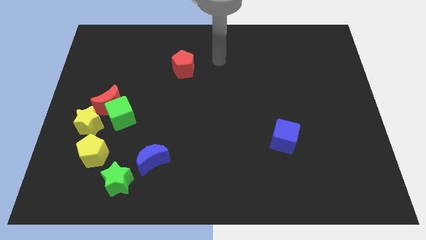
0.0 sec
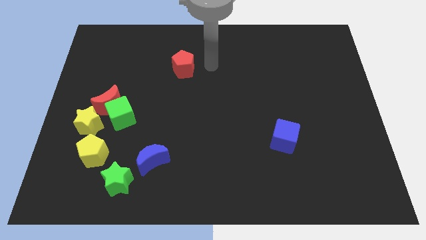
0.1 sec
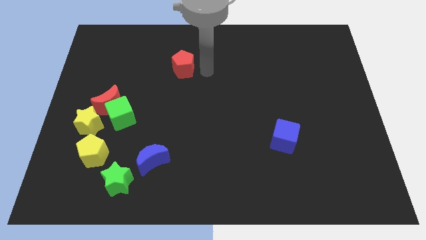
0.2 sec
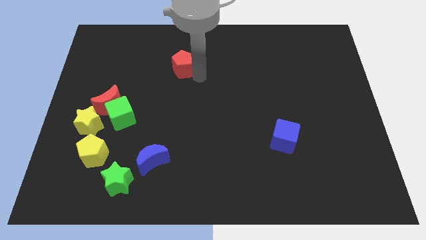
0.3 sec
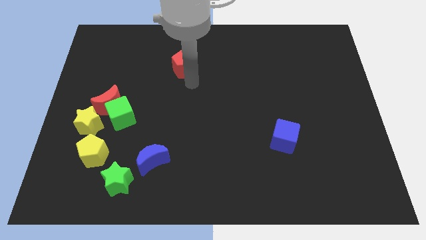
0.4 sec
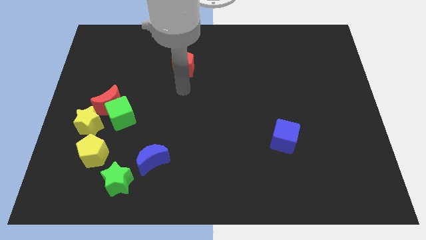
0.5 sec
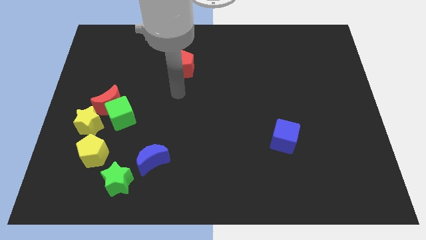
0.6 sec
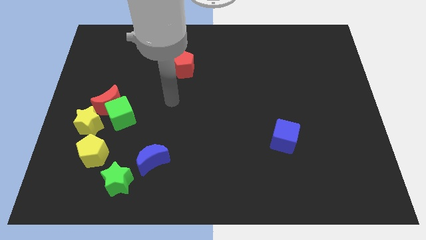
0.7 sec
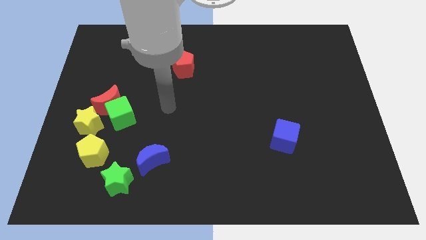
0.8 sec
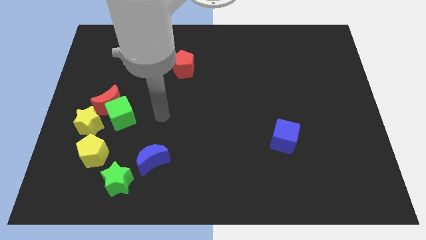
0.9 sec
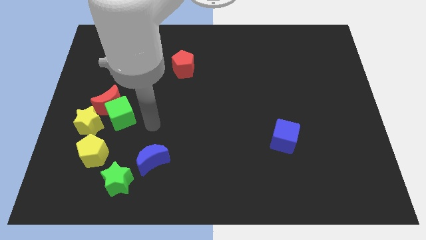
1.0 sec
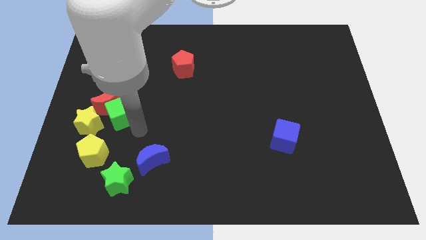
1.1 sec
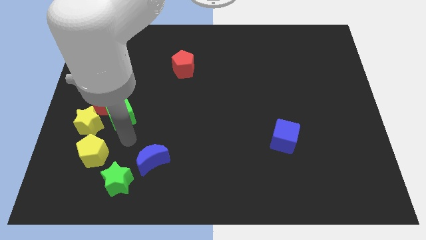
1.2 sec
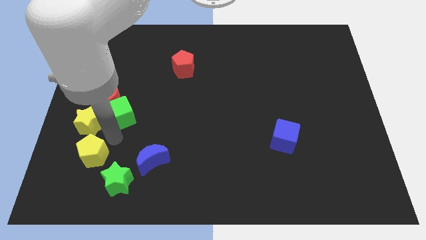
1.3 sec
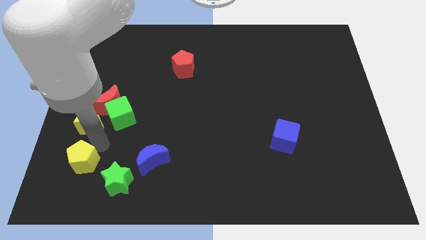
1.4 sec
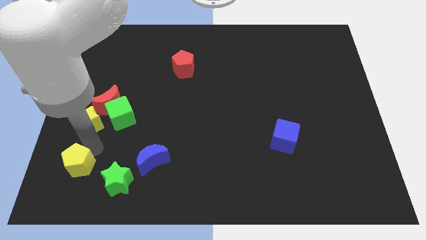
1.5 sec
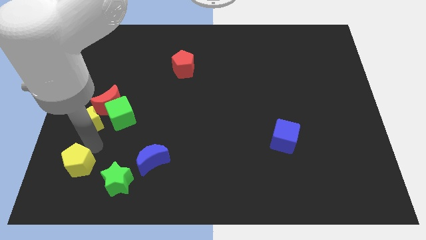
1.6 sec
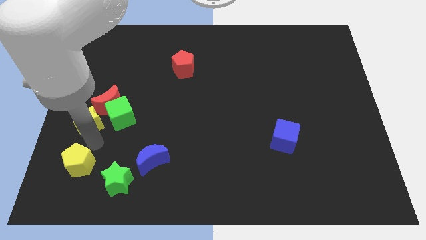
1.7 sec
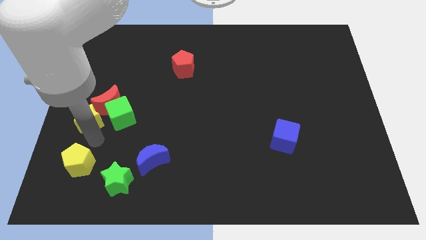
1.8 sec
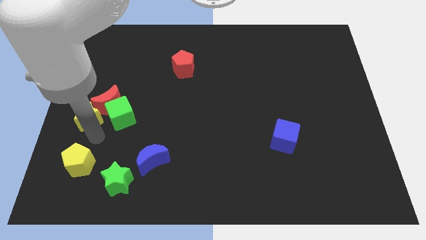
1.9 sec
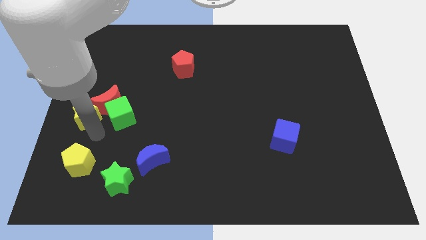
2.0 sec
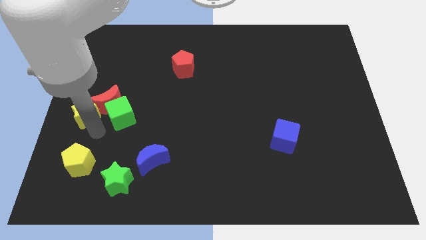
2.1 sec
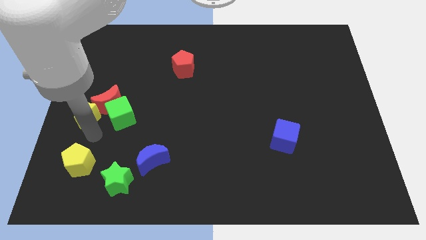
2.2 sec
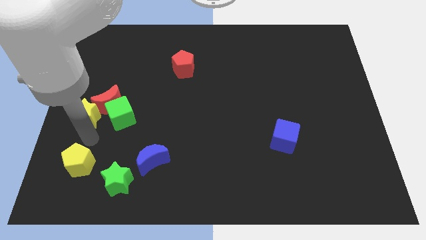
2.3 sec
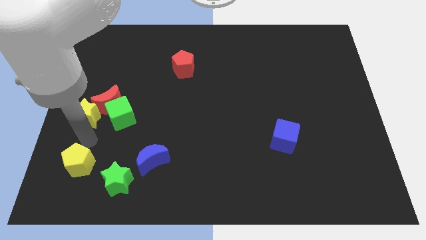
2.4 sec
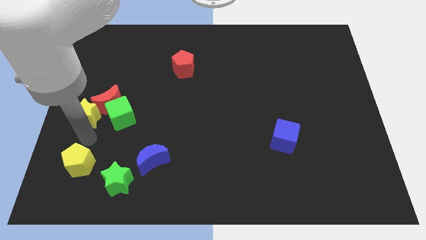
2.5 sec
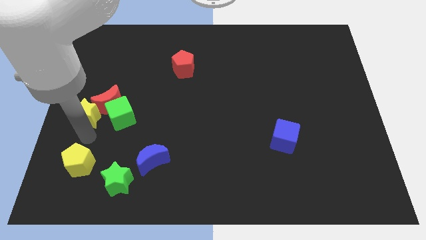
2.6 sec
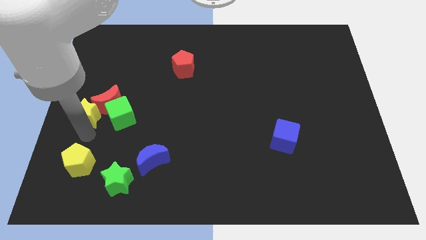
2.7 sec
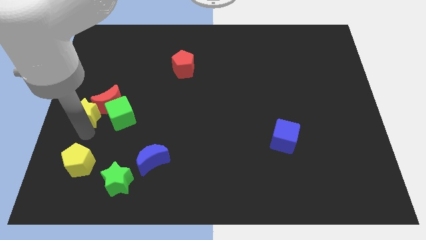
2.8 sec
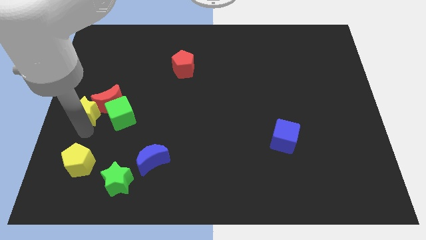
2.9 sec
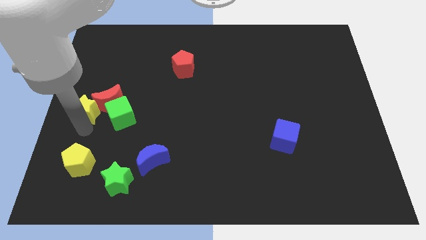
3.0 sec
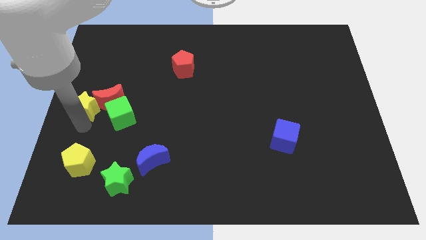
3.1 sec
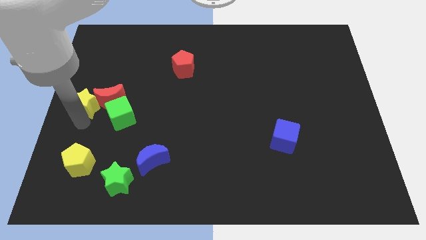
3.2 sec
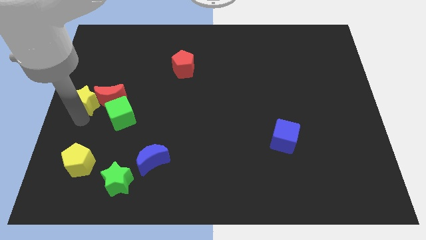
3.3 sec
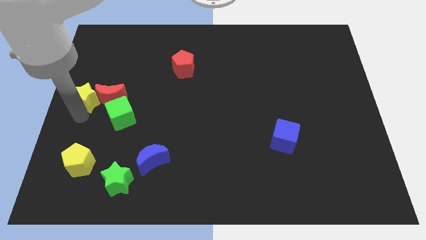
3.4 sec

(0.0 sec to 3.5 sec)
slide the yellow star somewhat up

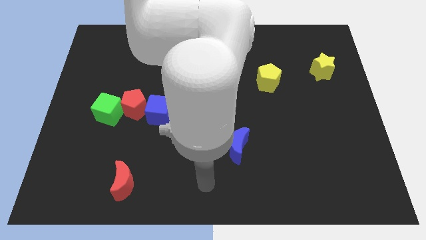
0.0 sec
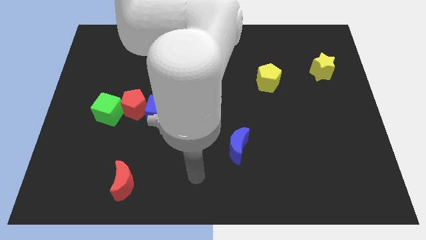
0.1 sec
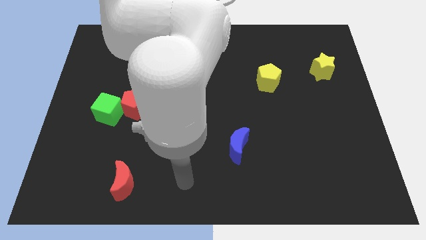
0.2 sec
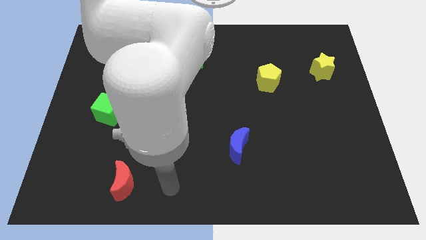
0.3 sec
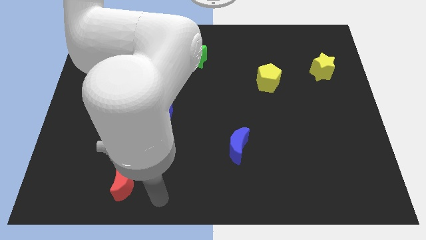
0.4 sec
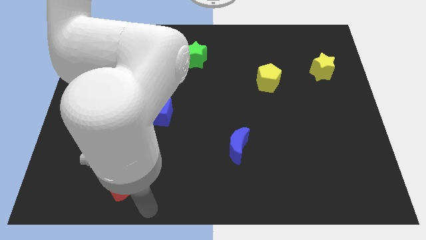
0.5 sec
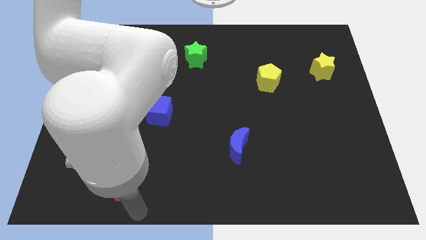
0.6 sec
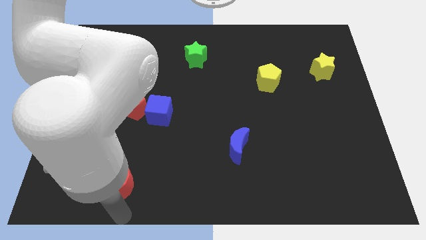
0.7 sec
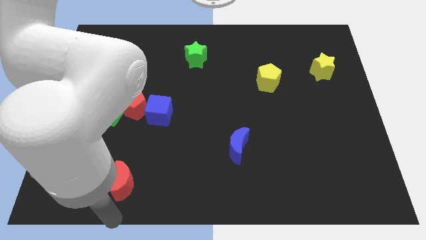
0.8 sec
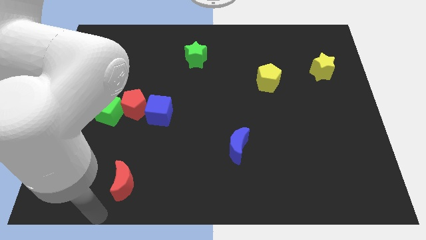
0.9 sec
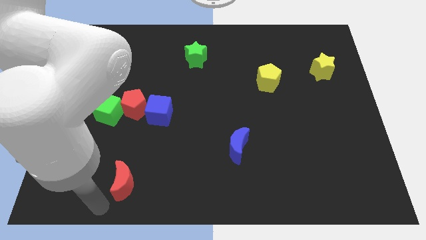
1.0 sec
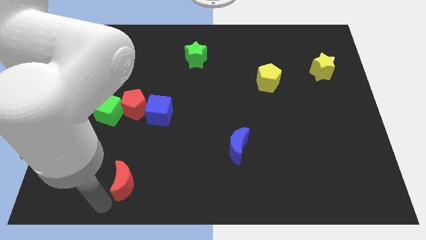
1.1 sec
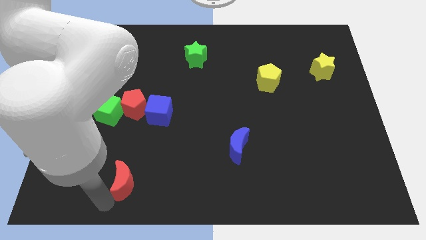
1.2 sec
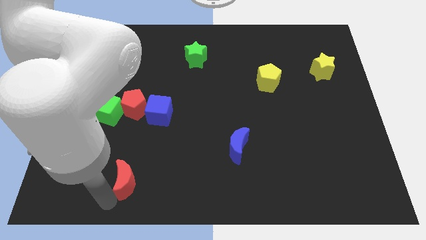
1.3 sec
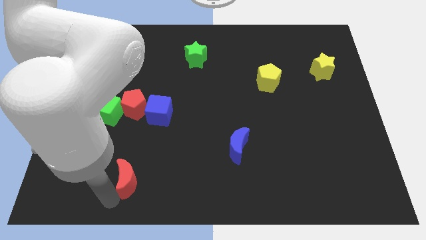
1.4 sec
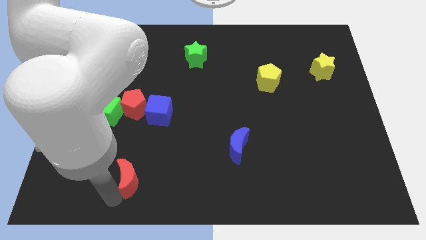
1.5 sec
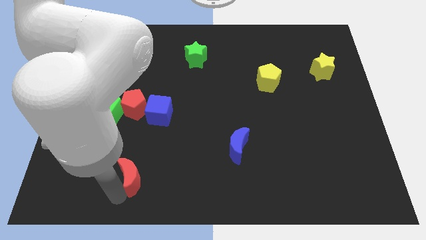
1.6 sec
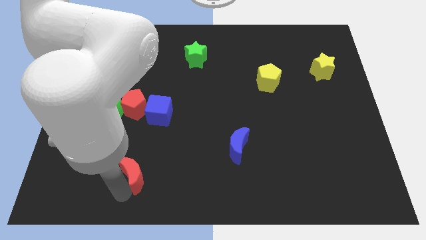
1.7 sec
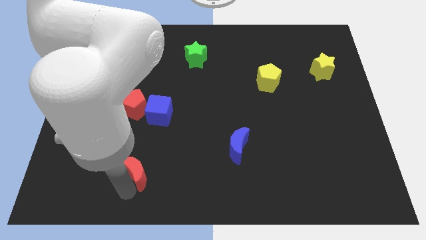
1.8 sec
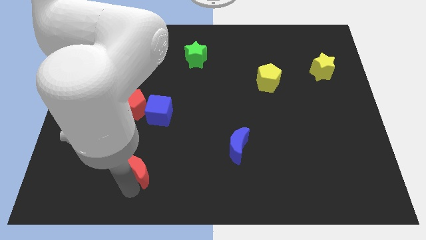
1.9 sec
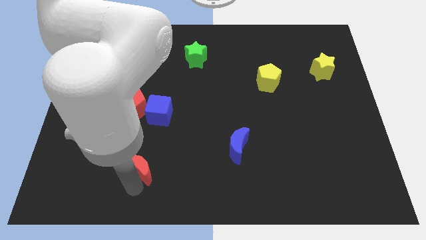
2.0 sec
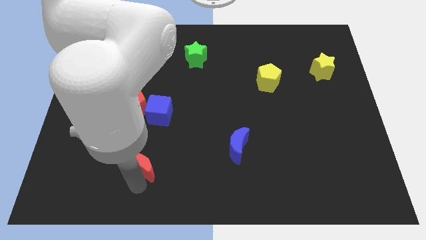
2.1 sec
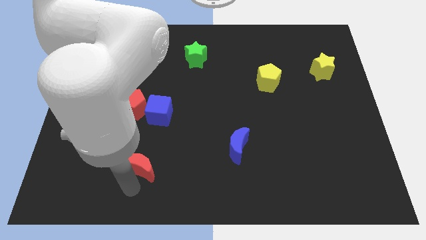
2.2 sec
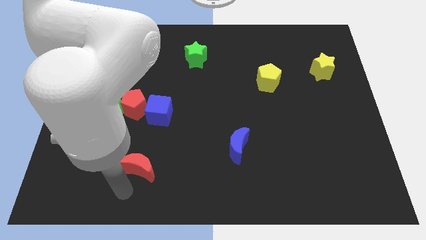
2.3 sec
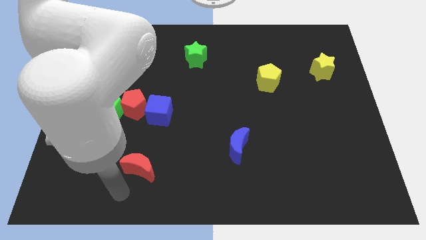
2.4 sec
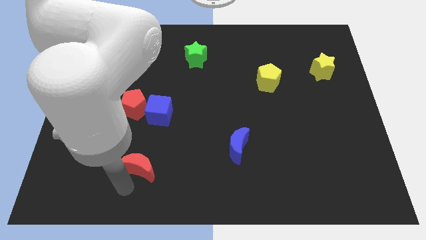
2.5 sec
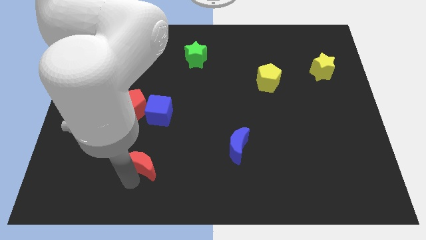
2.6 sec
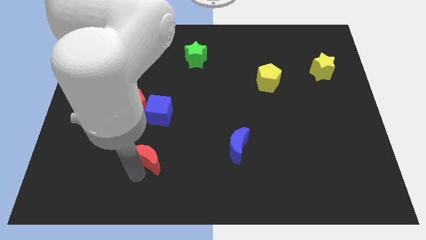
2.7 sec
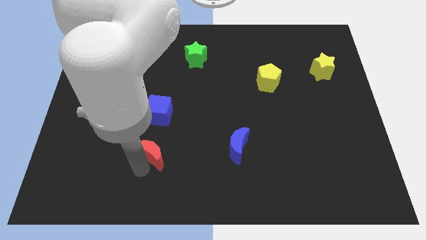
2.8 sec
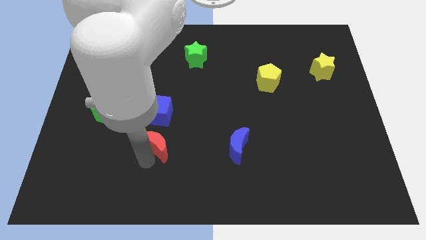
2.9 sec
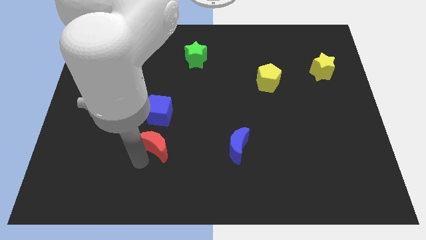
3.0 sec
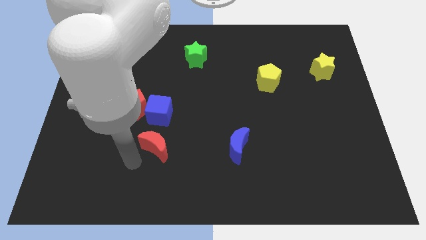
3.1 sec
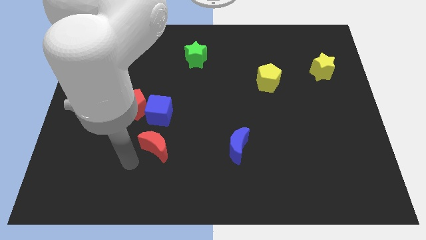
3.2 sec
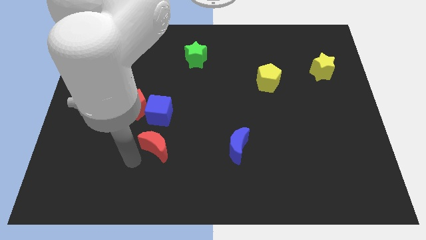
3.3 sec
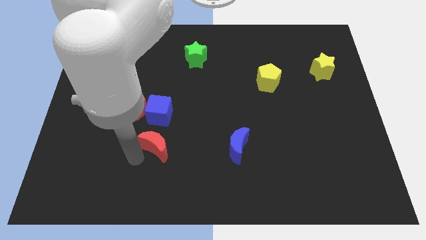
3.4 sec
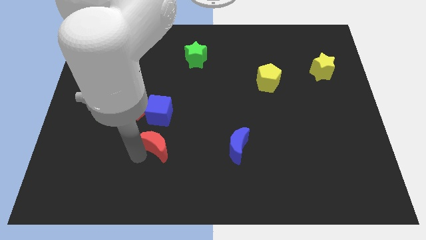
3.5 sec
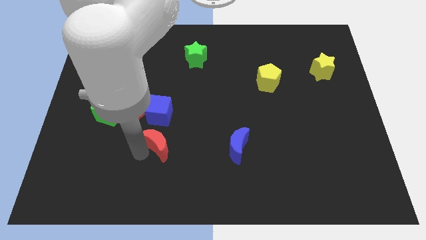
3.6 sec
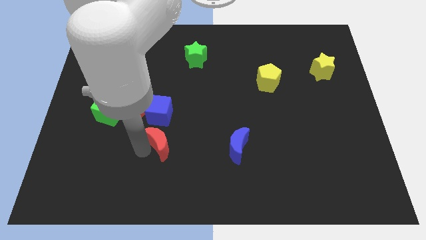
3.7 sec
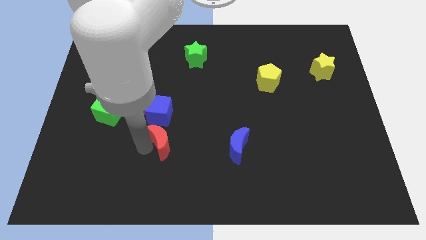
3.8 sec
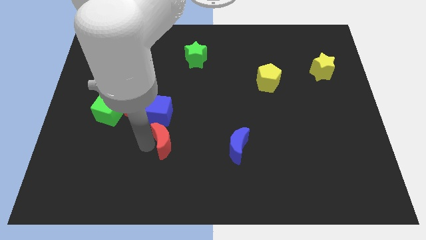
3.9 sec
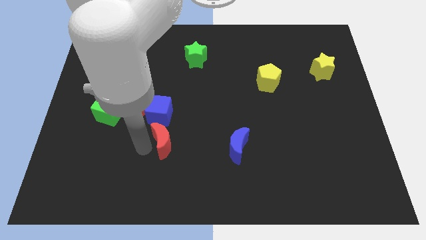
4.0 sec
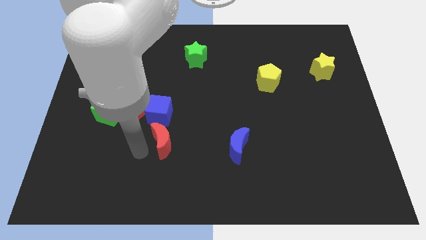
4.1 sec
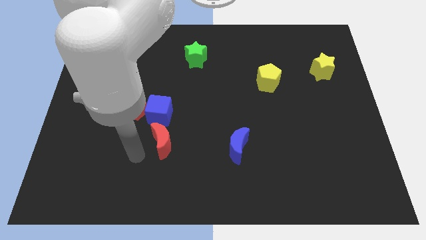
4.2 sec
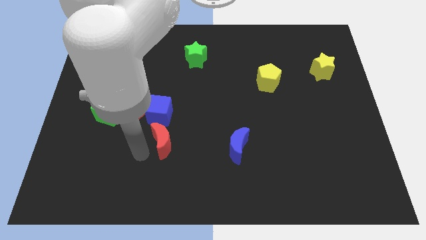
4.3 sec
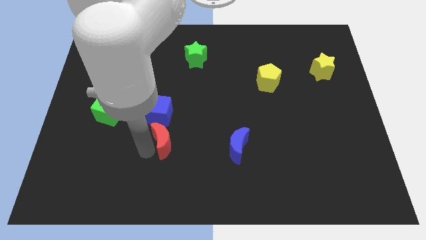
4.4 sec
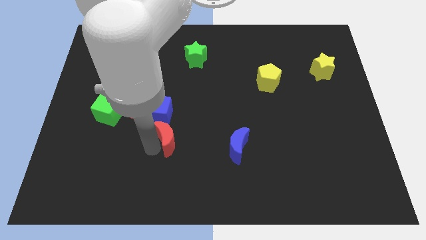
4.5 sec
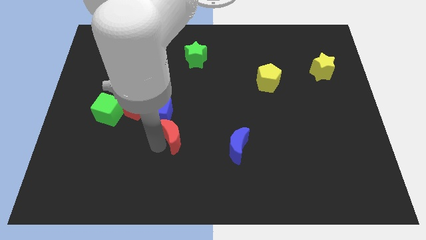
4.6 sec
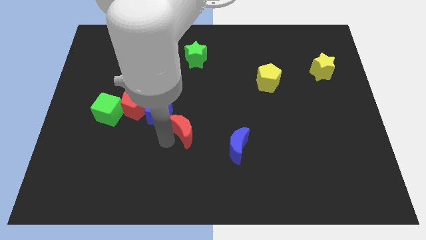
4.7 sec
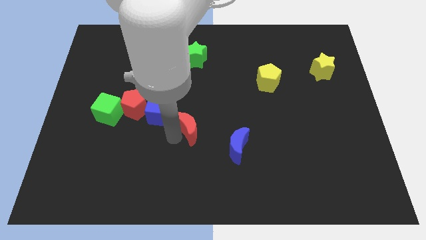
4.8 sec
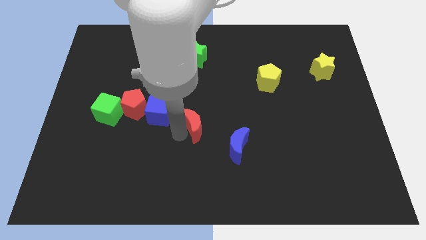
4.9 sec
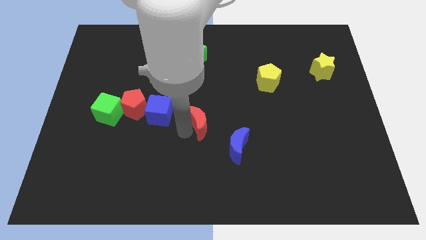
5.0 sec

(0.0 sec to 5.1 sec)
move the red moon diagonally upwards and right
